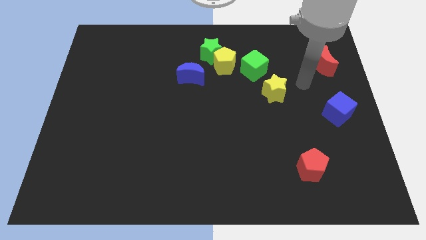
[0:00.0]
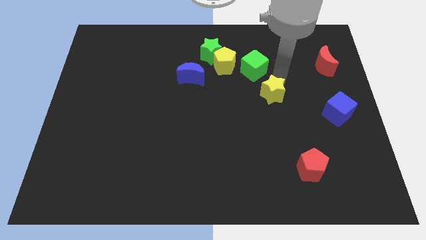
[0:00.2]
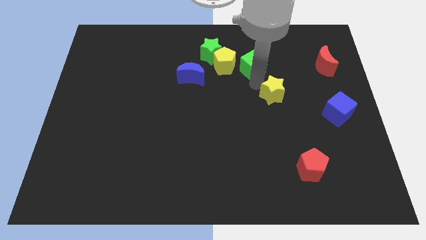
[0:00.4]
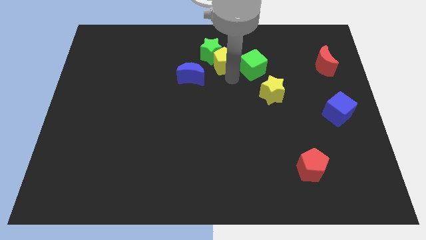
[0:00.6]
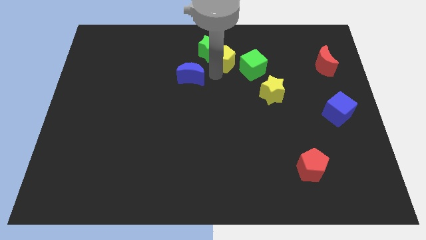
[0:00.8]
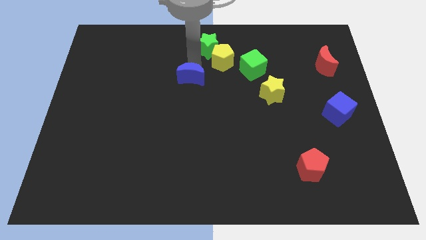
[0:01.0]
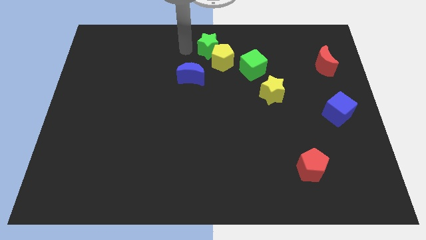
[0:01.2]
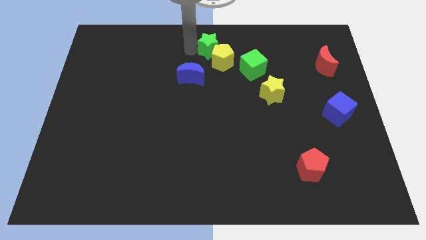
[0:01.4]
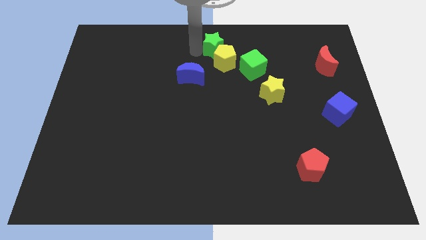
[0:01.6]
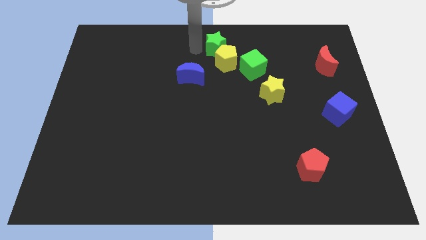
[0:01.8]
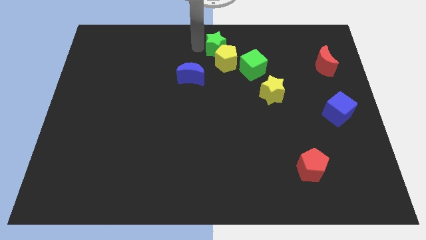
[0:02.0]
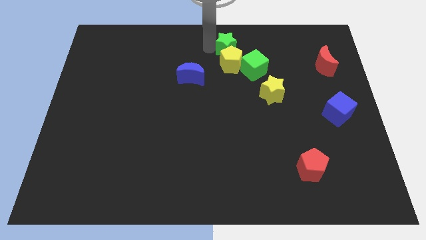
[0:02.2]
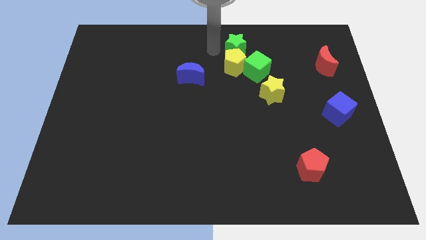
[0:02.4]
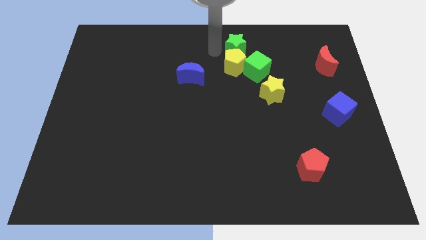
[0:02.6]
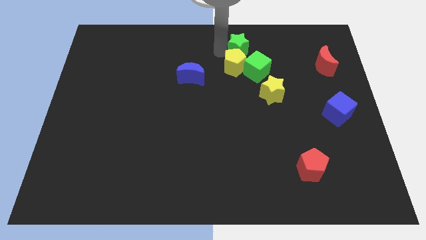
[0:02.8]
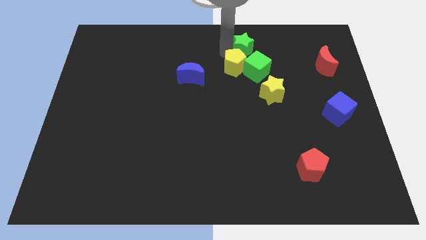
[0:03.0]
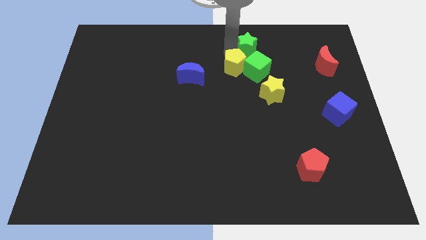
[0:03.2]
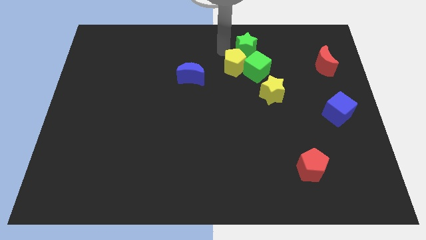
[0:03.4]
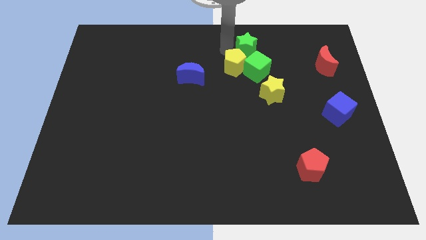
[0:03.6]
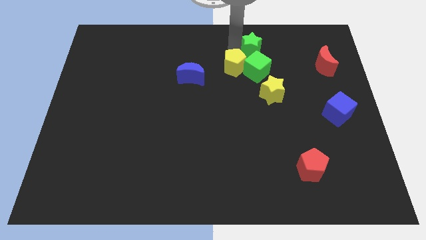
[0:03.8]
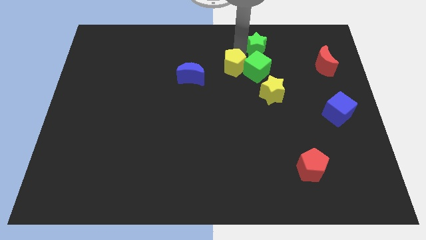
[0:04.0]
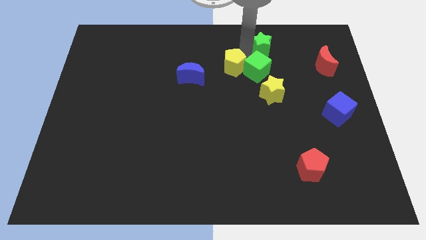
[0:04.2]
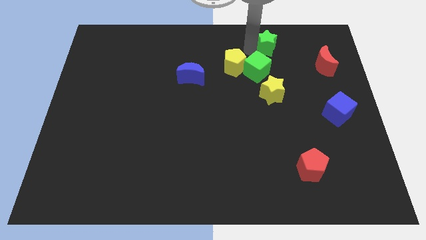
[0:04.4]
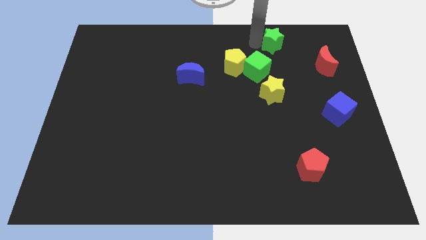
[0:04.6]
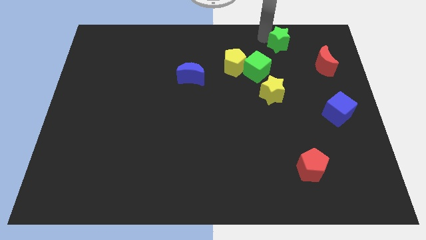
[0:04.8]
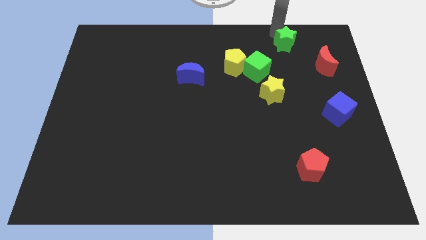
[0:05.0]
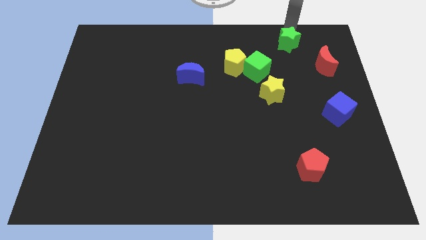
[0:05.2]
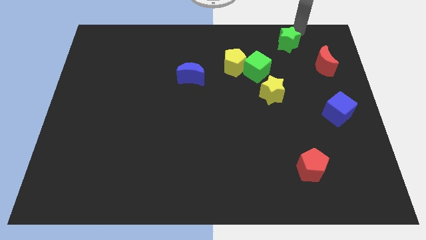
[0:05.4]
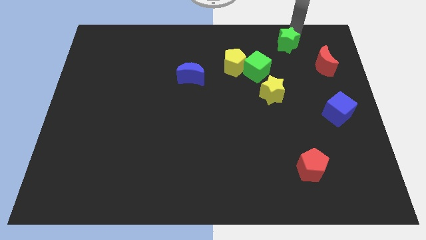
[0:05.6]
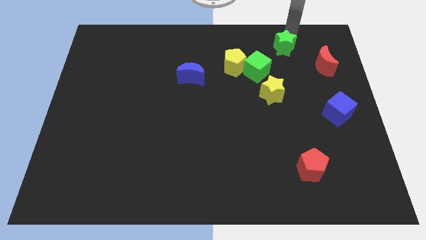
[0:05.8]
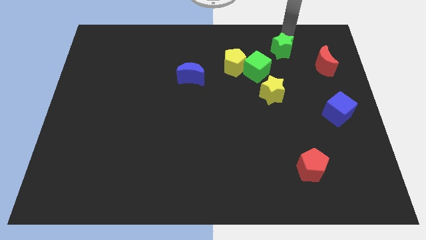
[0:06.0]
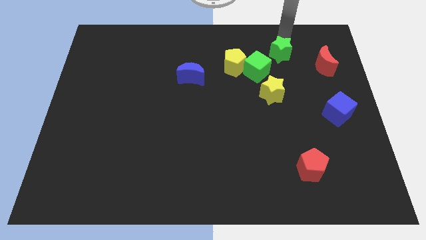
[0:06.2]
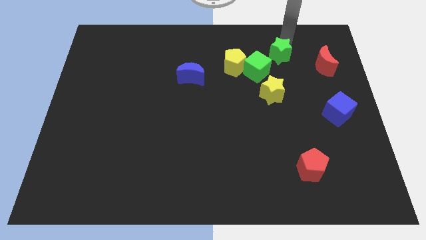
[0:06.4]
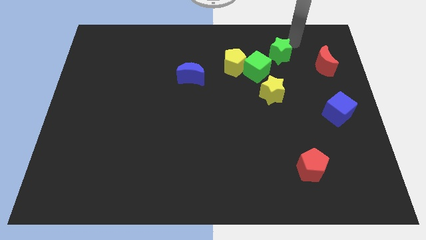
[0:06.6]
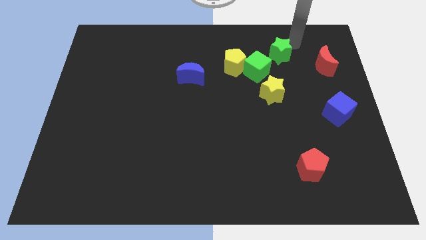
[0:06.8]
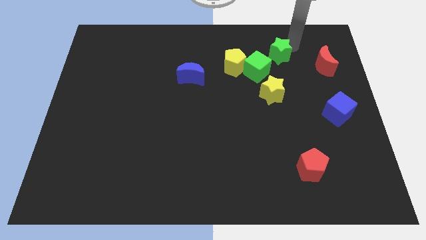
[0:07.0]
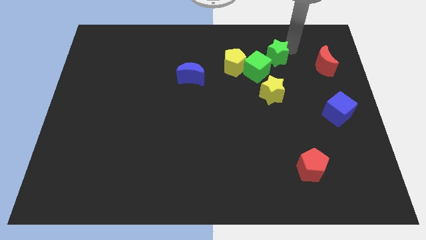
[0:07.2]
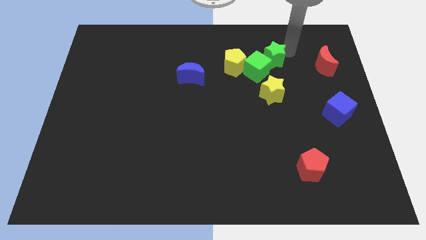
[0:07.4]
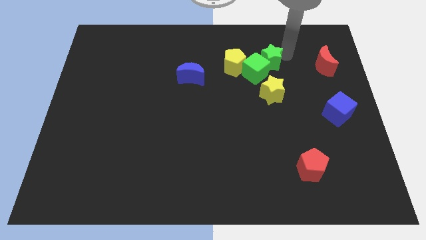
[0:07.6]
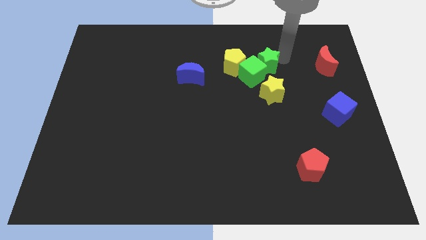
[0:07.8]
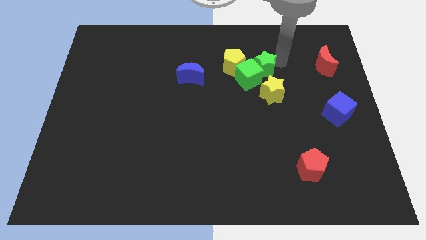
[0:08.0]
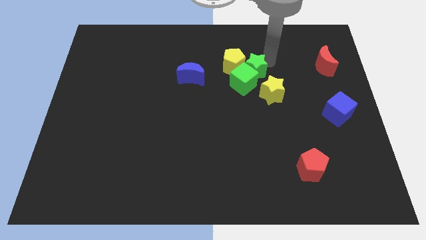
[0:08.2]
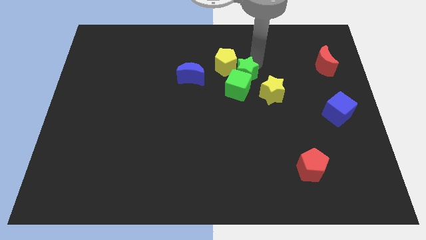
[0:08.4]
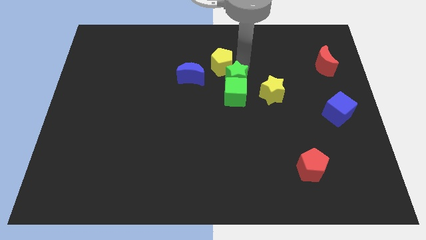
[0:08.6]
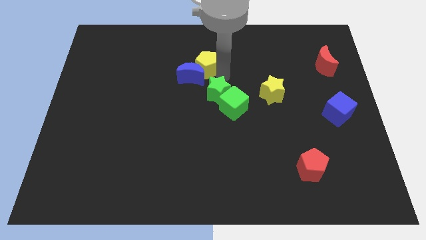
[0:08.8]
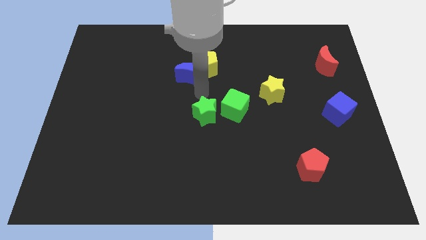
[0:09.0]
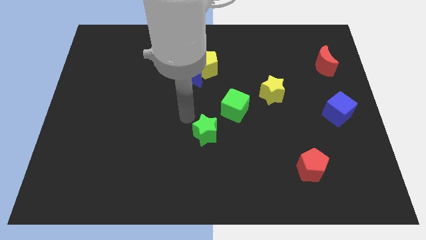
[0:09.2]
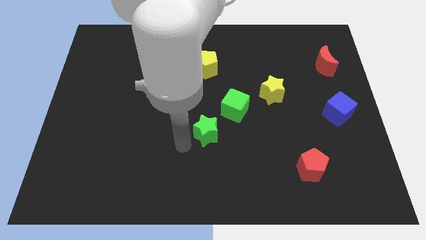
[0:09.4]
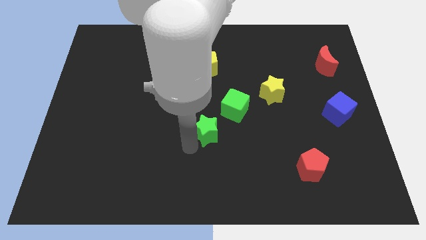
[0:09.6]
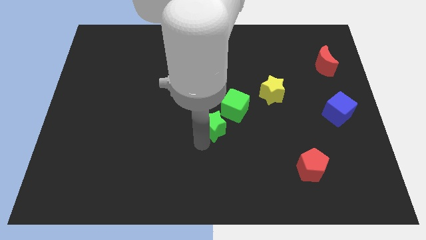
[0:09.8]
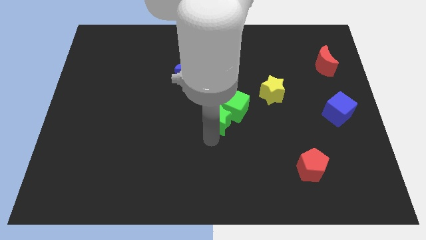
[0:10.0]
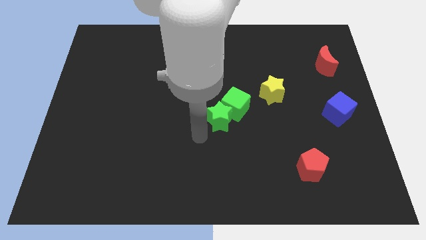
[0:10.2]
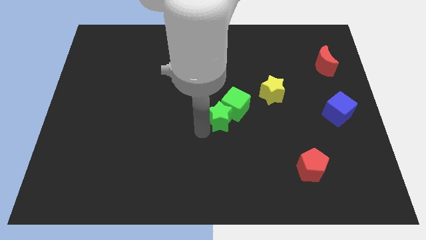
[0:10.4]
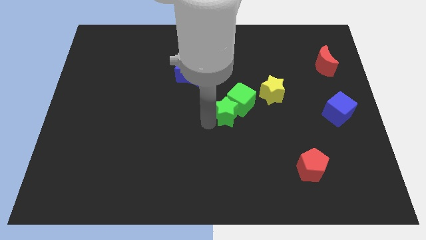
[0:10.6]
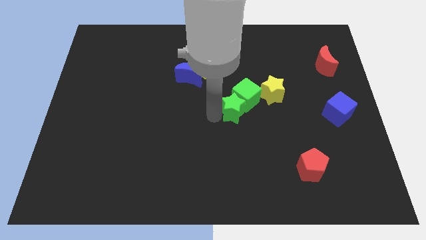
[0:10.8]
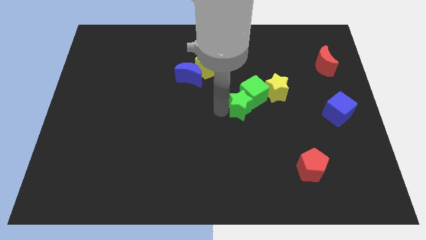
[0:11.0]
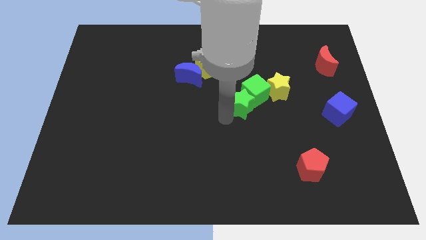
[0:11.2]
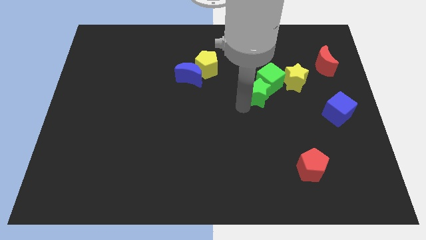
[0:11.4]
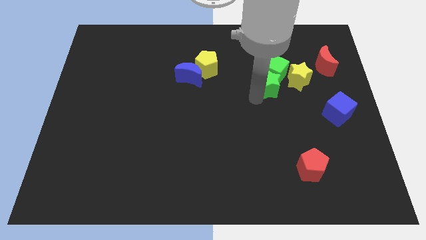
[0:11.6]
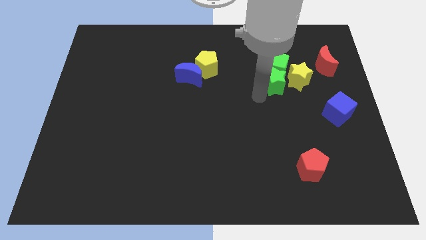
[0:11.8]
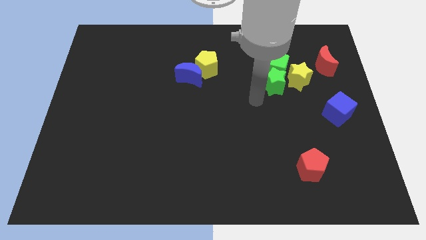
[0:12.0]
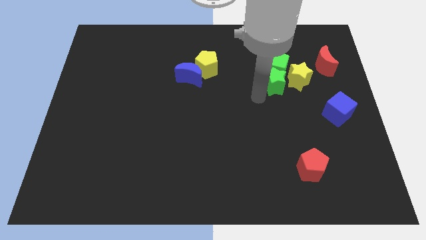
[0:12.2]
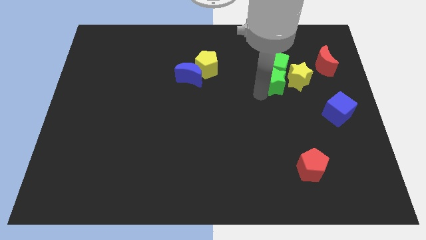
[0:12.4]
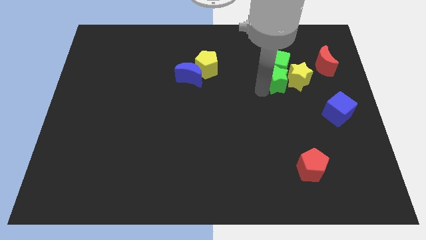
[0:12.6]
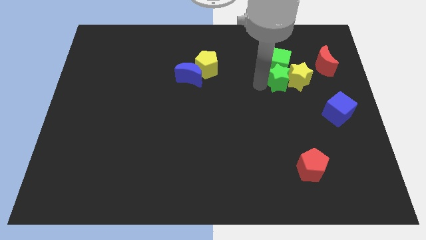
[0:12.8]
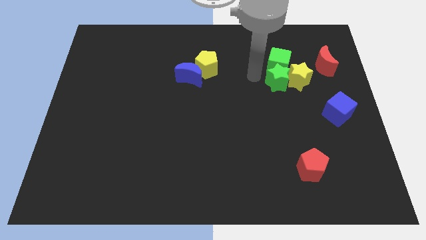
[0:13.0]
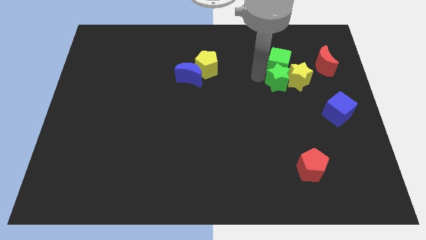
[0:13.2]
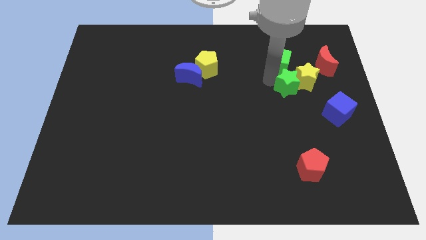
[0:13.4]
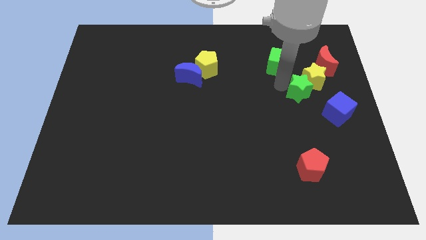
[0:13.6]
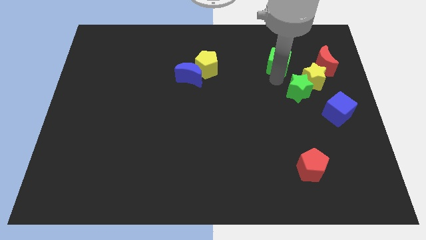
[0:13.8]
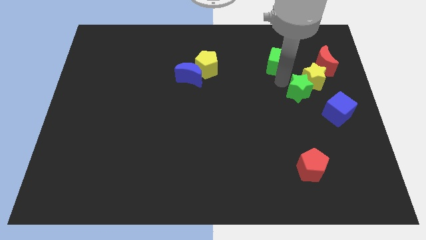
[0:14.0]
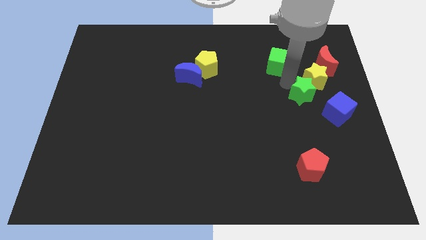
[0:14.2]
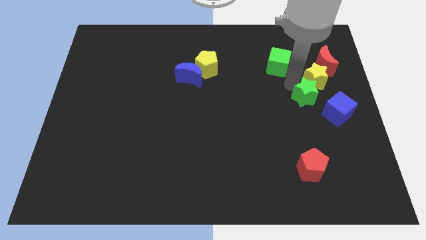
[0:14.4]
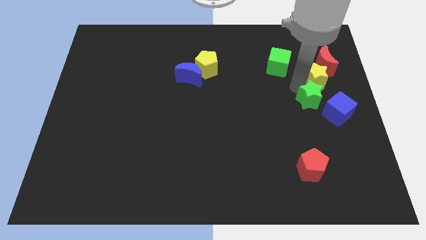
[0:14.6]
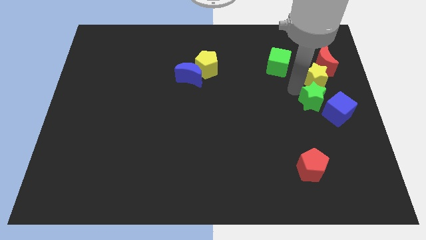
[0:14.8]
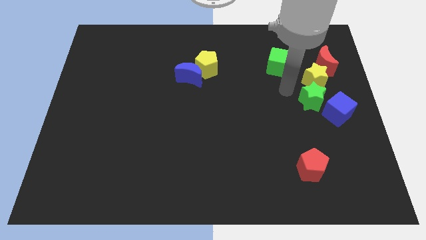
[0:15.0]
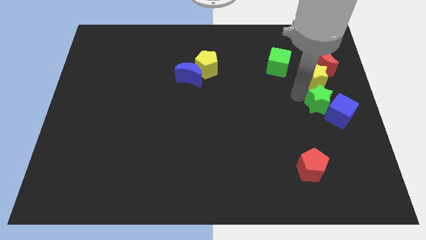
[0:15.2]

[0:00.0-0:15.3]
move the green star to the blue cube

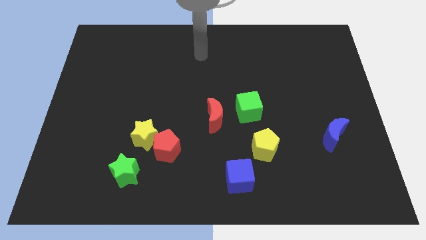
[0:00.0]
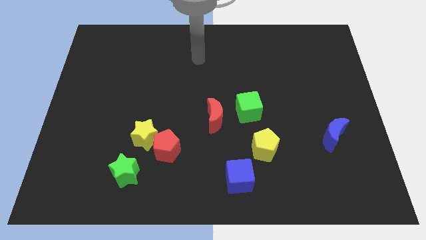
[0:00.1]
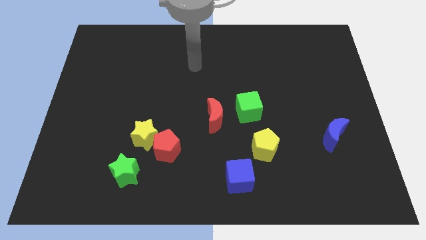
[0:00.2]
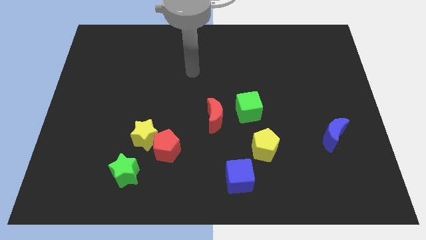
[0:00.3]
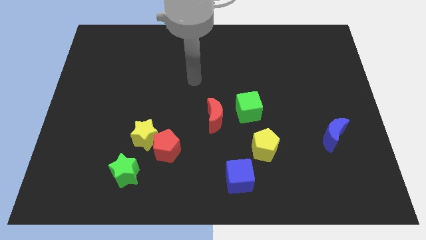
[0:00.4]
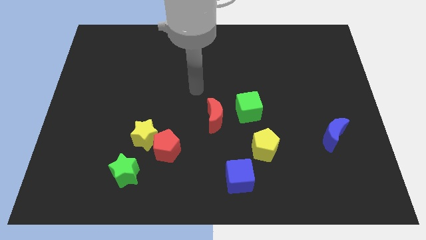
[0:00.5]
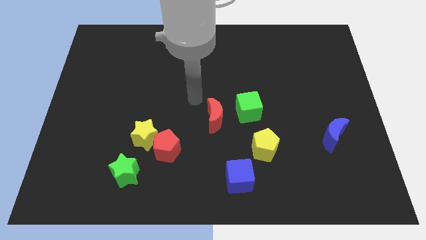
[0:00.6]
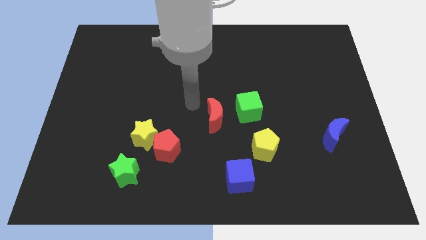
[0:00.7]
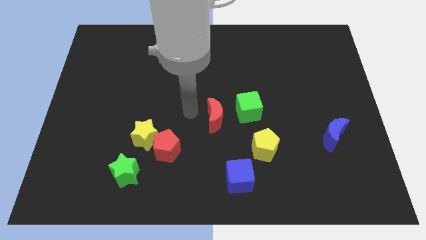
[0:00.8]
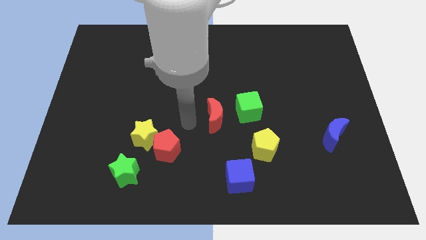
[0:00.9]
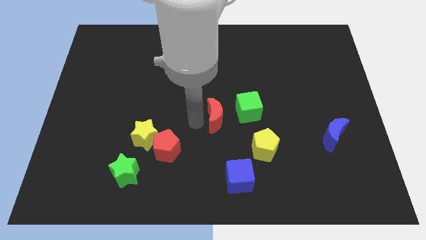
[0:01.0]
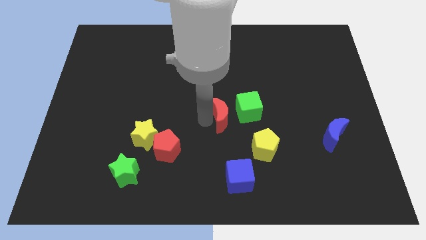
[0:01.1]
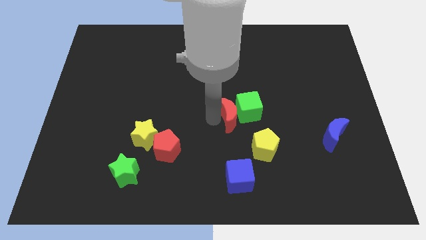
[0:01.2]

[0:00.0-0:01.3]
push the red moon close to the green cube
